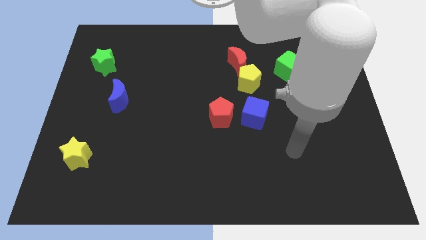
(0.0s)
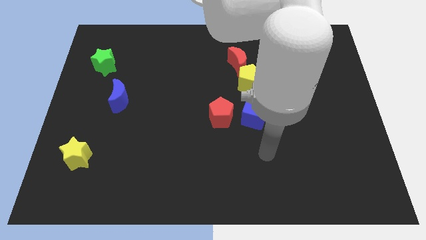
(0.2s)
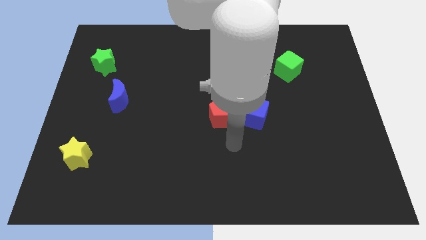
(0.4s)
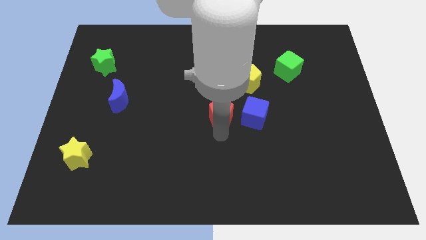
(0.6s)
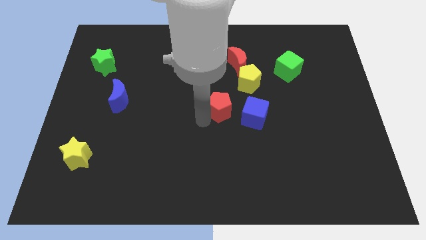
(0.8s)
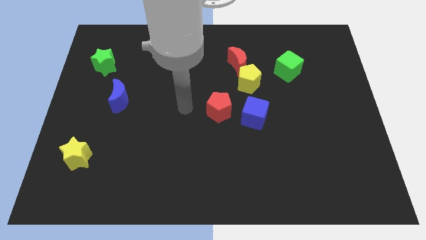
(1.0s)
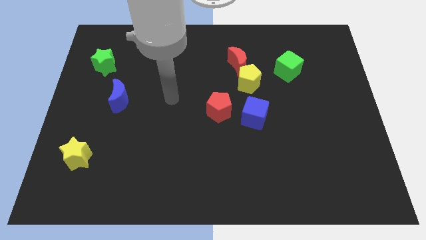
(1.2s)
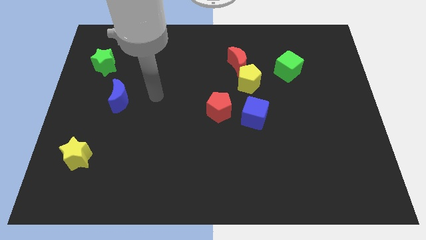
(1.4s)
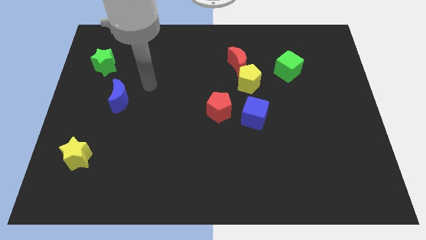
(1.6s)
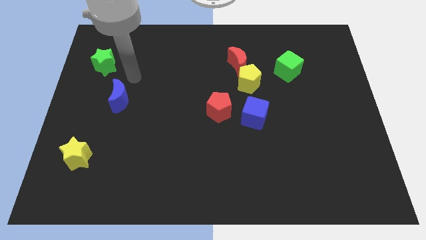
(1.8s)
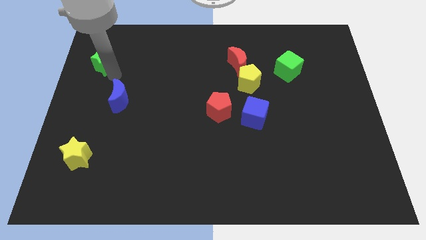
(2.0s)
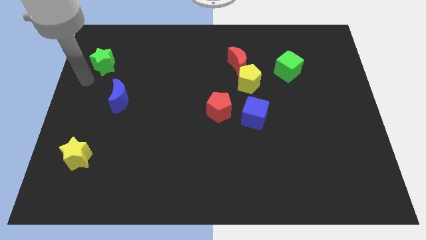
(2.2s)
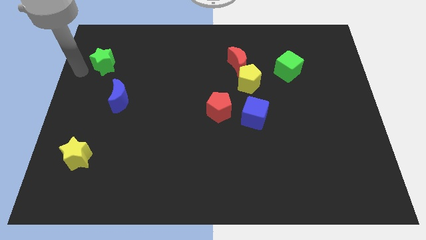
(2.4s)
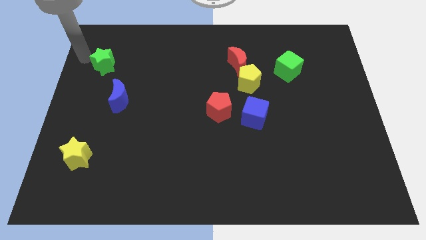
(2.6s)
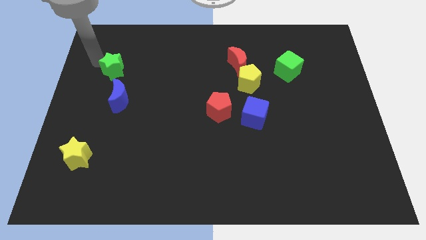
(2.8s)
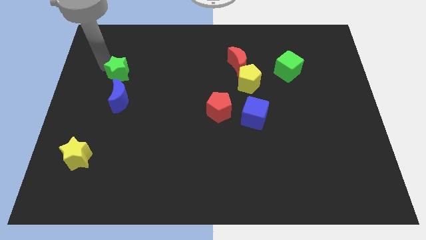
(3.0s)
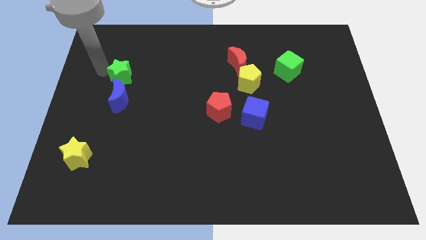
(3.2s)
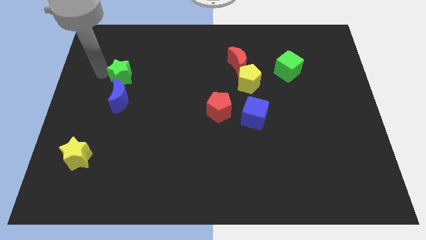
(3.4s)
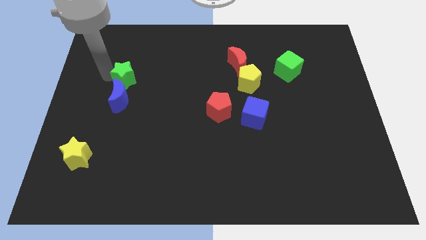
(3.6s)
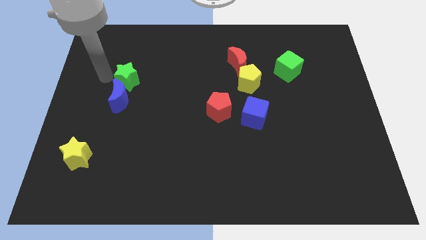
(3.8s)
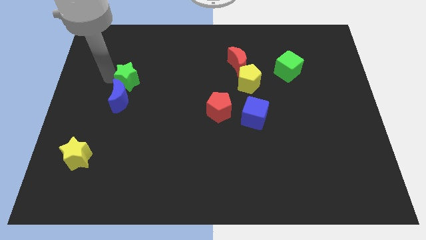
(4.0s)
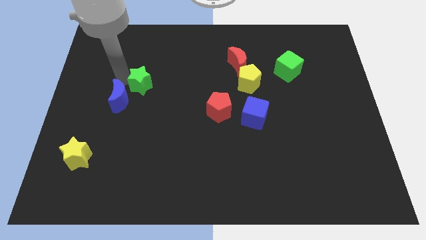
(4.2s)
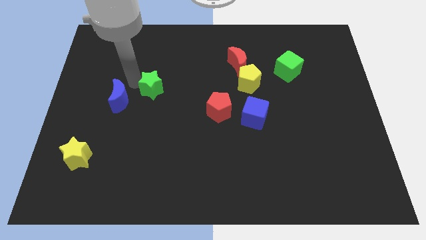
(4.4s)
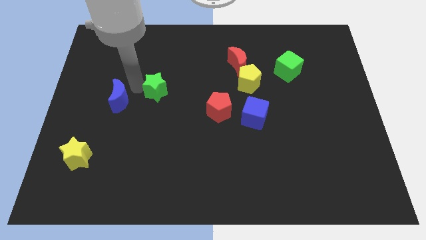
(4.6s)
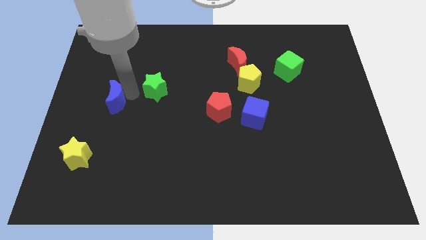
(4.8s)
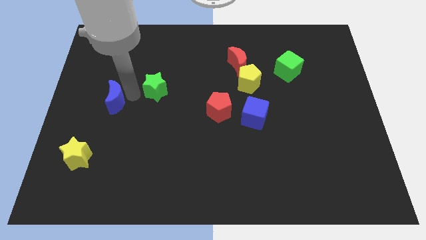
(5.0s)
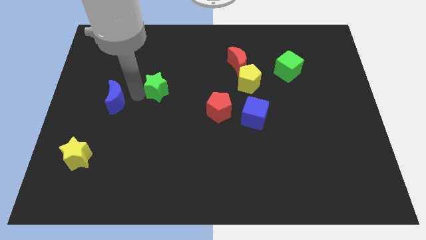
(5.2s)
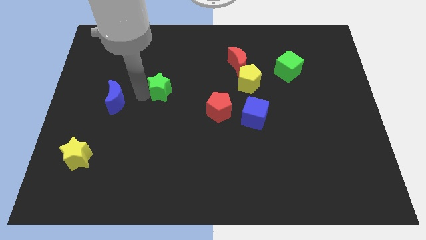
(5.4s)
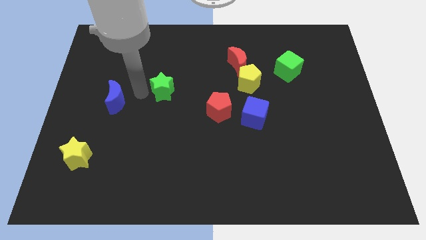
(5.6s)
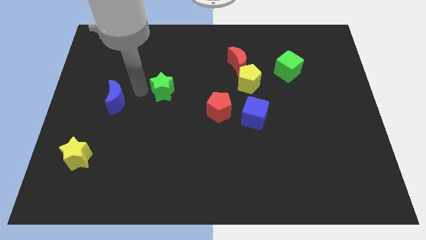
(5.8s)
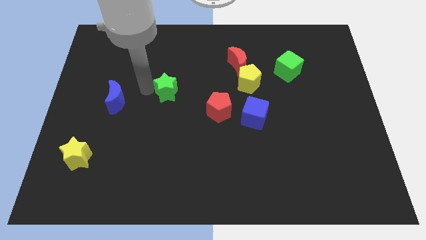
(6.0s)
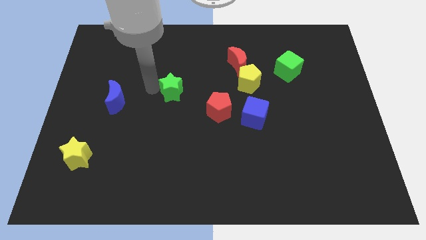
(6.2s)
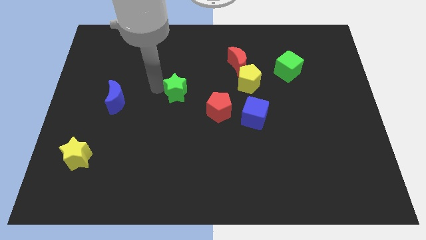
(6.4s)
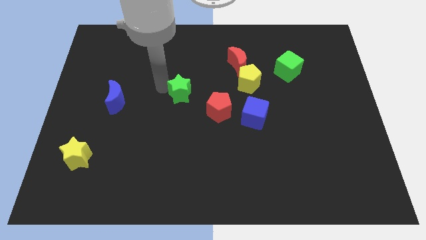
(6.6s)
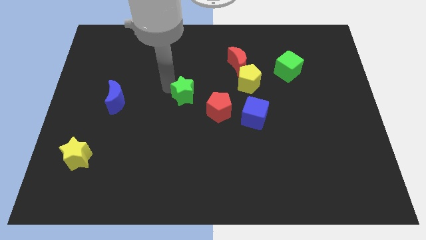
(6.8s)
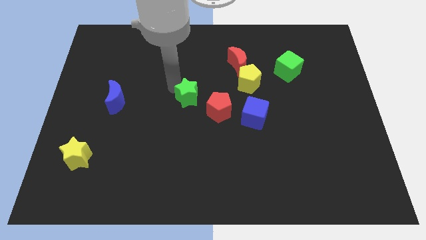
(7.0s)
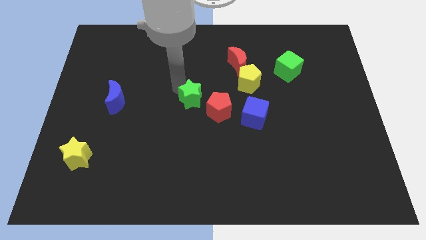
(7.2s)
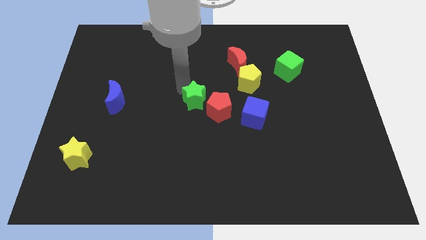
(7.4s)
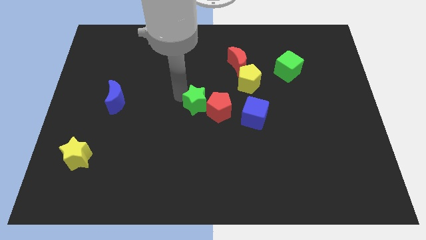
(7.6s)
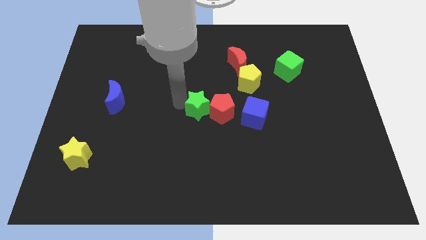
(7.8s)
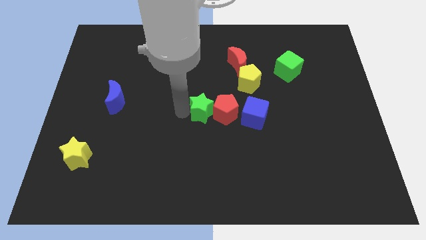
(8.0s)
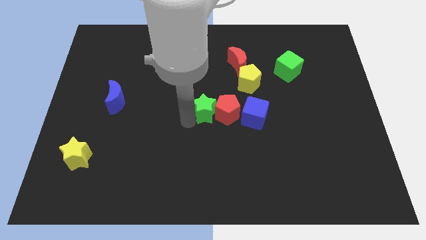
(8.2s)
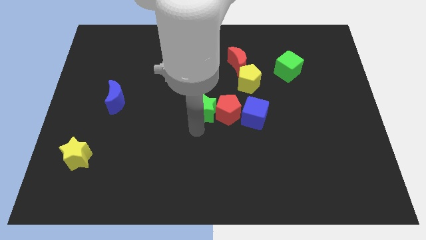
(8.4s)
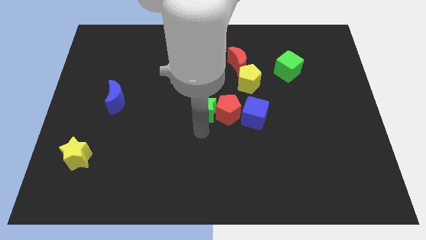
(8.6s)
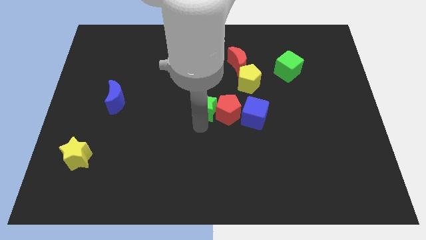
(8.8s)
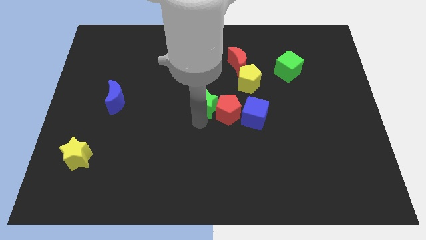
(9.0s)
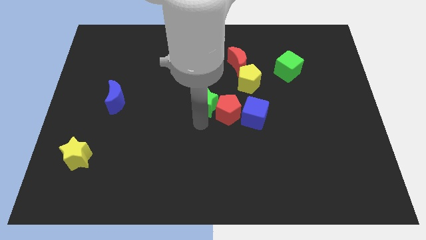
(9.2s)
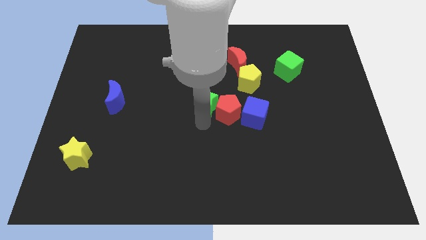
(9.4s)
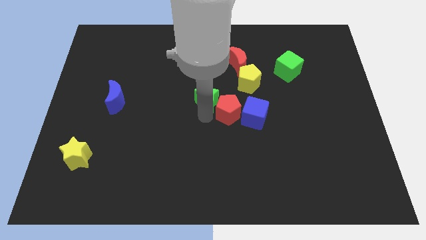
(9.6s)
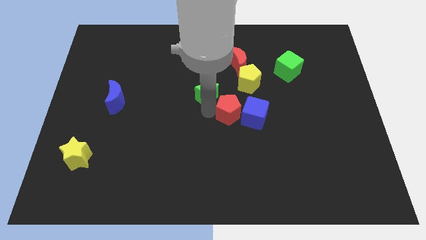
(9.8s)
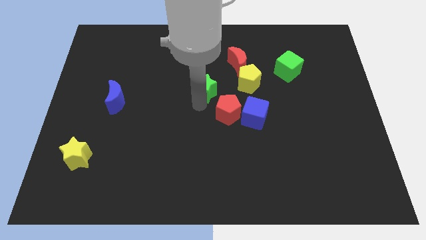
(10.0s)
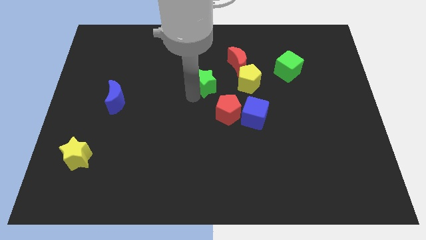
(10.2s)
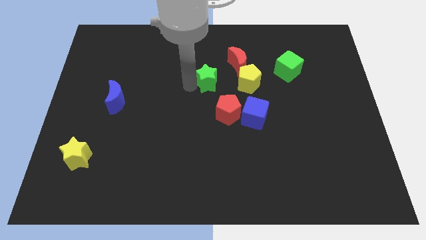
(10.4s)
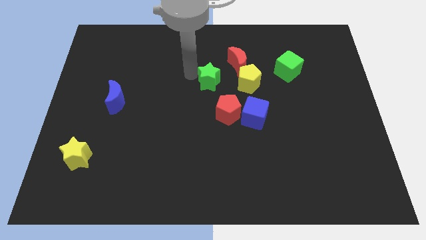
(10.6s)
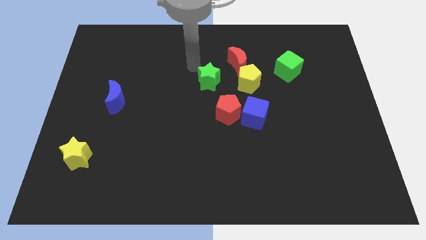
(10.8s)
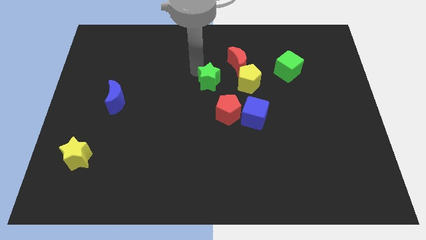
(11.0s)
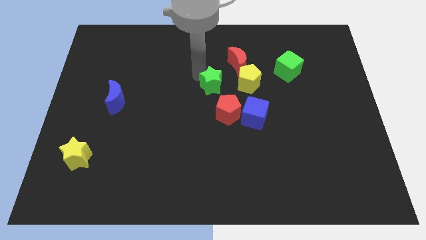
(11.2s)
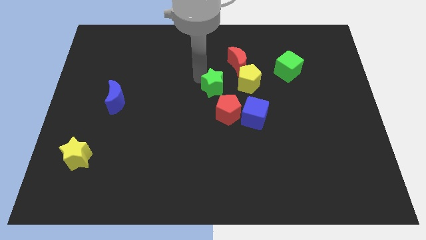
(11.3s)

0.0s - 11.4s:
move the green star to the top left side of the blue cube

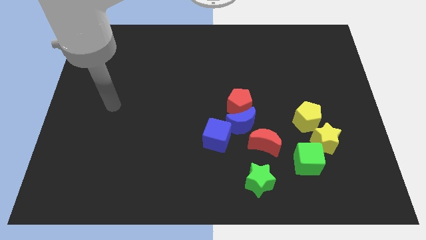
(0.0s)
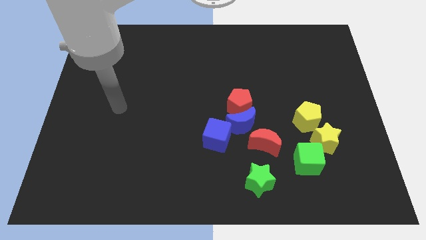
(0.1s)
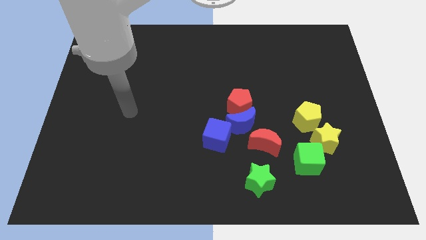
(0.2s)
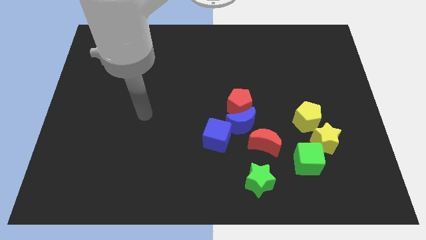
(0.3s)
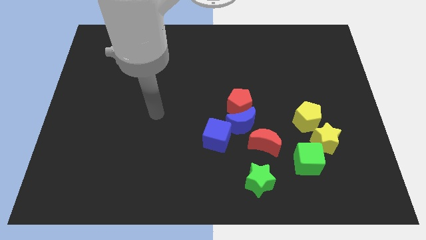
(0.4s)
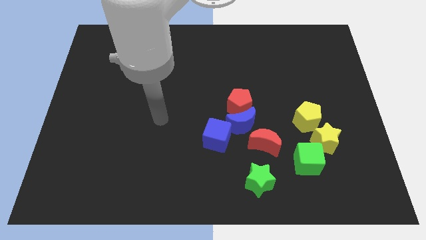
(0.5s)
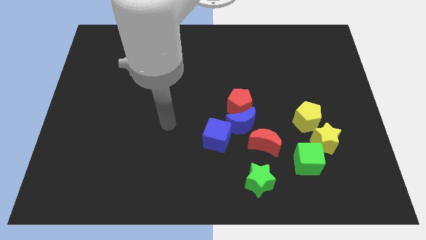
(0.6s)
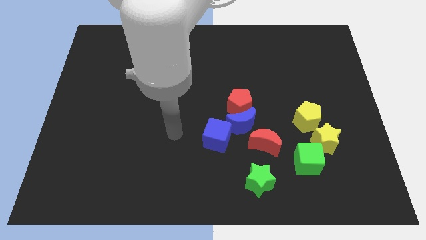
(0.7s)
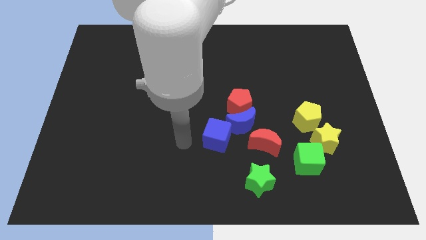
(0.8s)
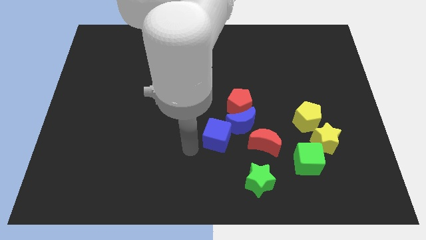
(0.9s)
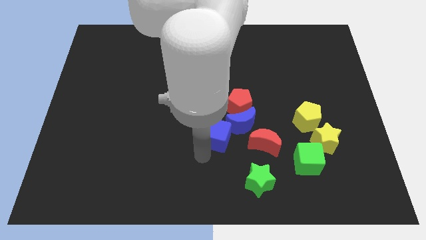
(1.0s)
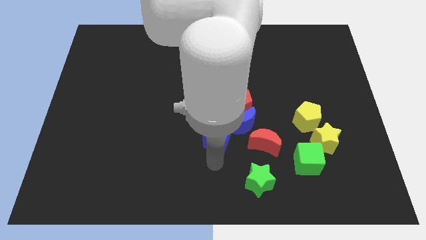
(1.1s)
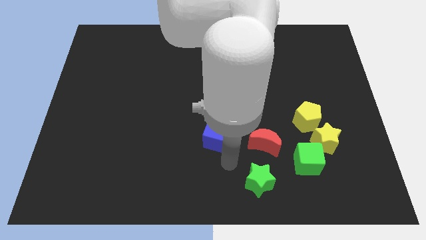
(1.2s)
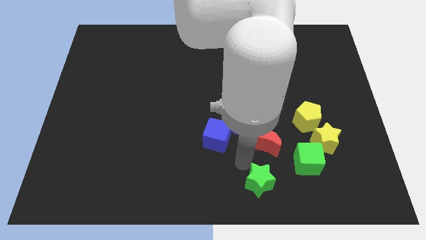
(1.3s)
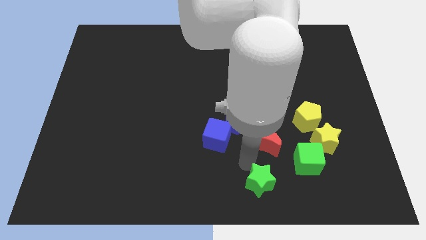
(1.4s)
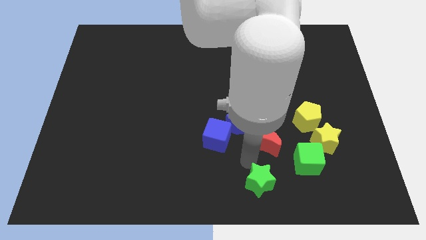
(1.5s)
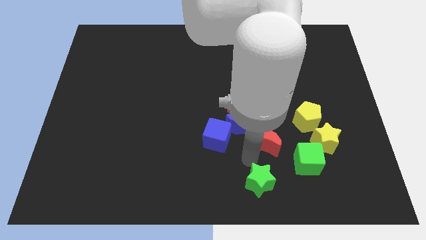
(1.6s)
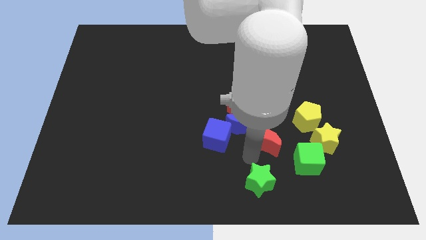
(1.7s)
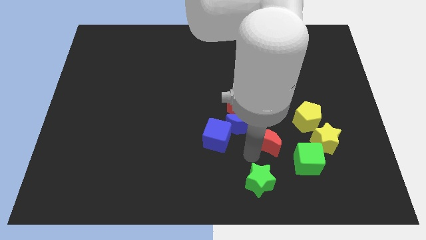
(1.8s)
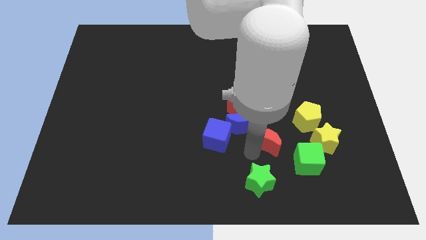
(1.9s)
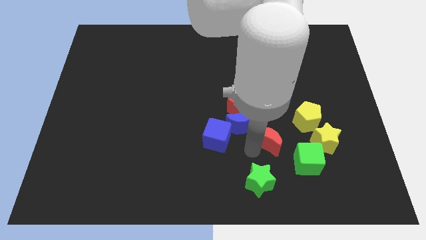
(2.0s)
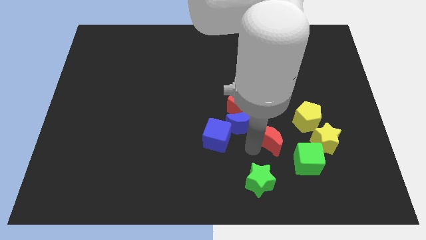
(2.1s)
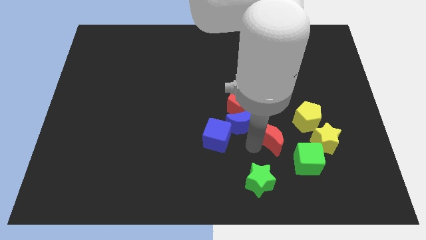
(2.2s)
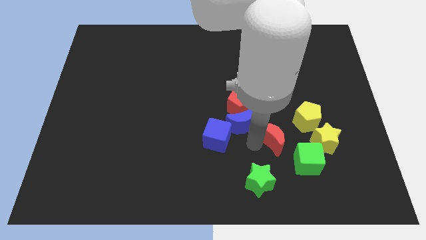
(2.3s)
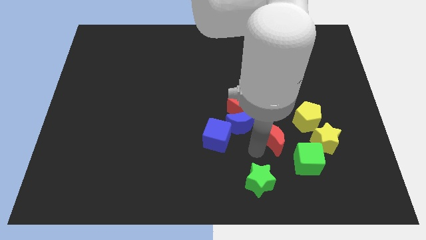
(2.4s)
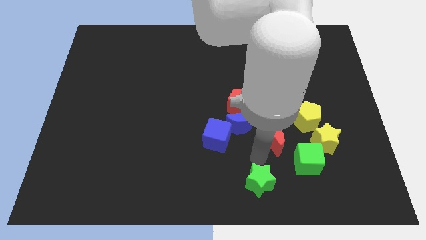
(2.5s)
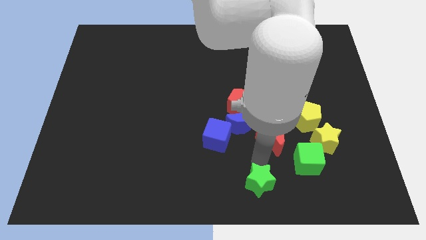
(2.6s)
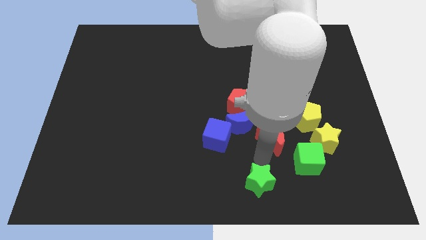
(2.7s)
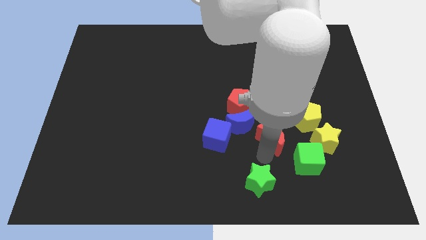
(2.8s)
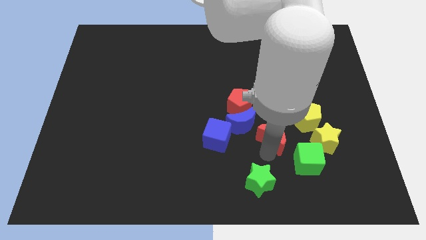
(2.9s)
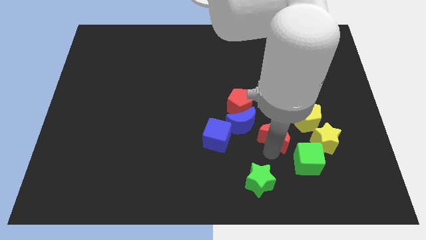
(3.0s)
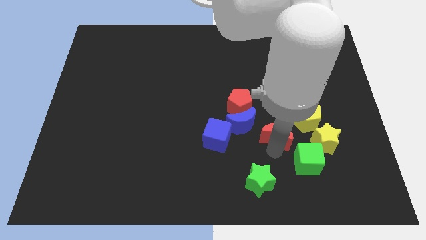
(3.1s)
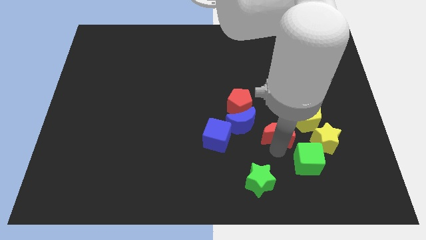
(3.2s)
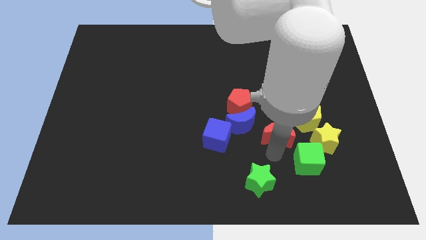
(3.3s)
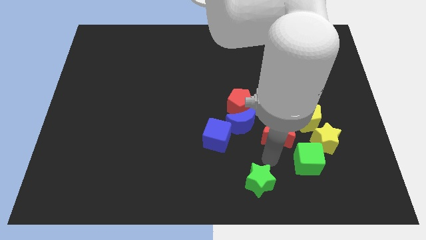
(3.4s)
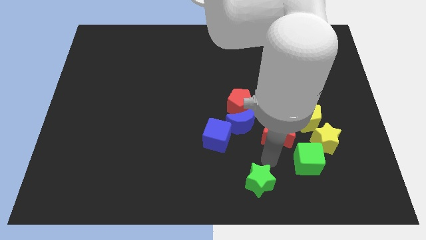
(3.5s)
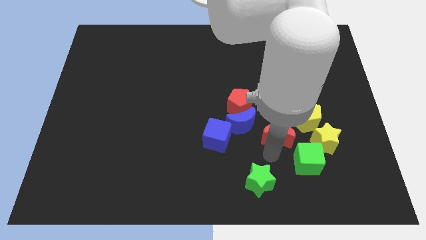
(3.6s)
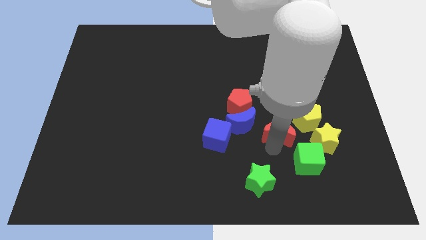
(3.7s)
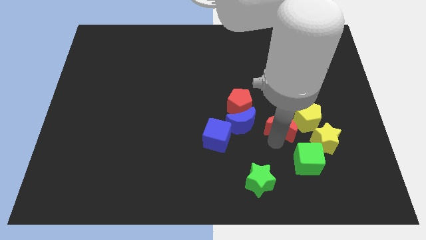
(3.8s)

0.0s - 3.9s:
push the red moon to the top left side of the yellow star
